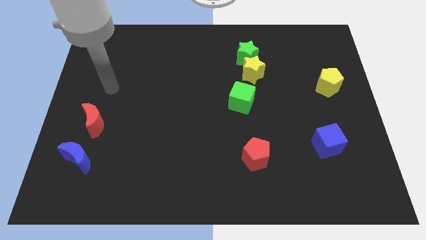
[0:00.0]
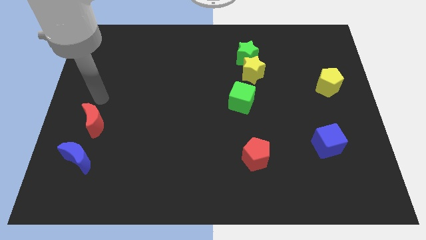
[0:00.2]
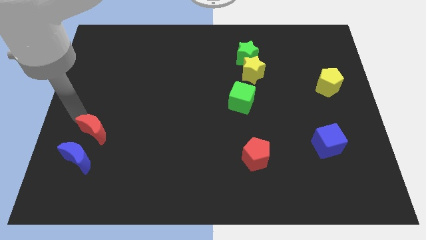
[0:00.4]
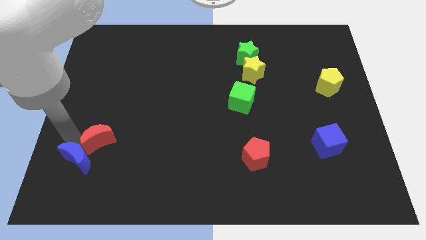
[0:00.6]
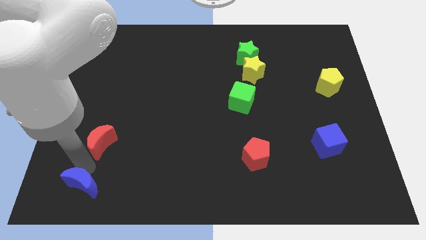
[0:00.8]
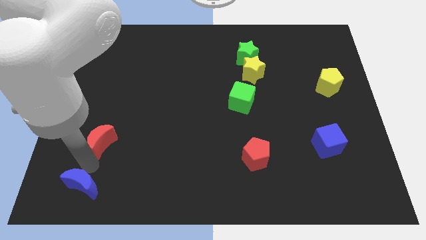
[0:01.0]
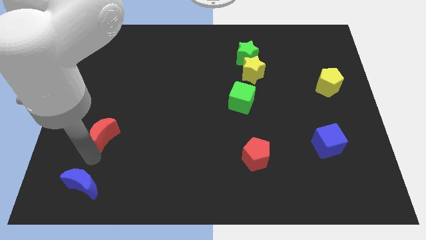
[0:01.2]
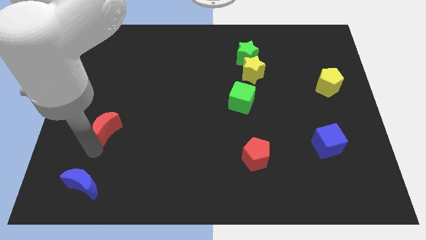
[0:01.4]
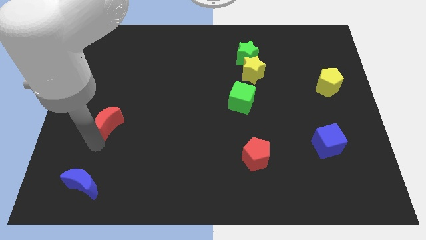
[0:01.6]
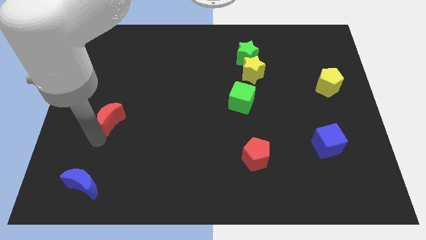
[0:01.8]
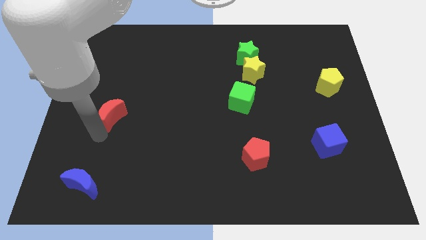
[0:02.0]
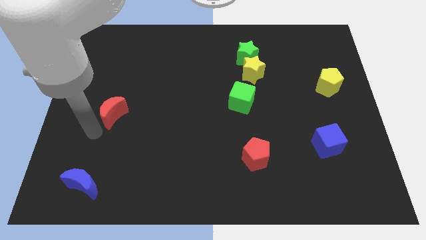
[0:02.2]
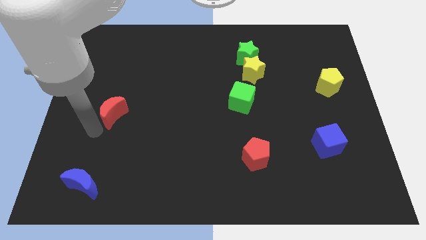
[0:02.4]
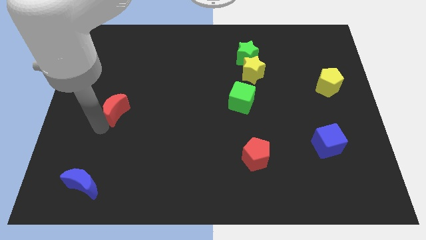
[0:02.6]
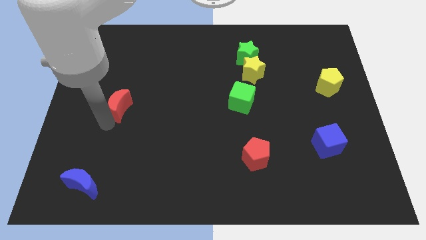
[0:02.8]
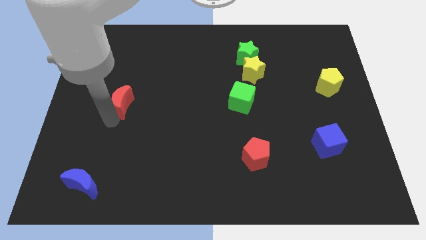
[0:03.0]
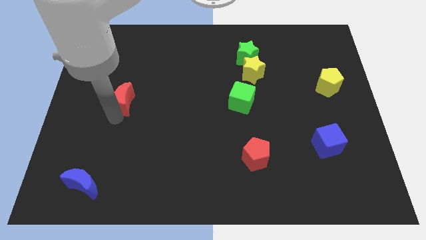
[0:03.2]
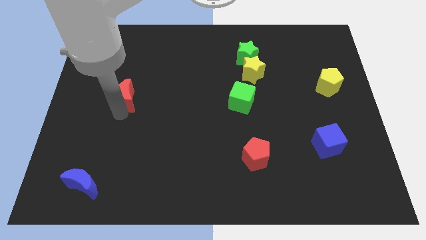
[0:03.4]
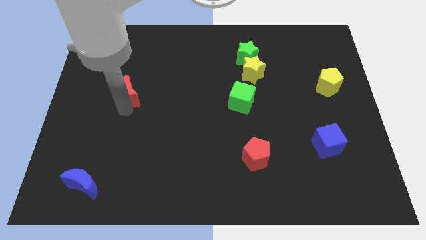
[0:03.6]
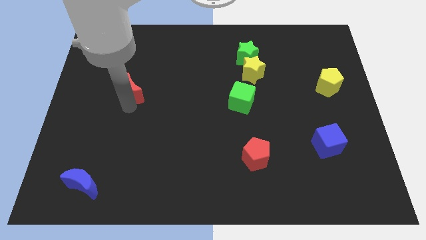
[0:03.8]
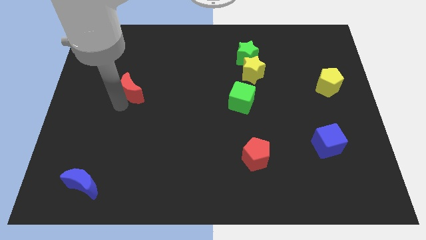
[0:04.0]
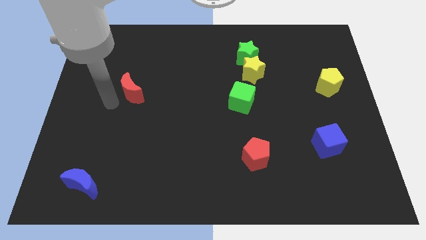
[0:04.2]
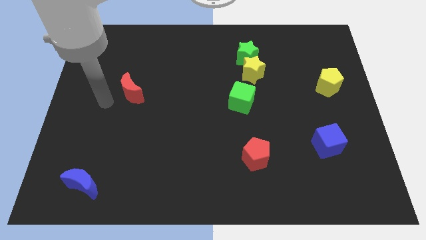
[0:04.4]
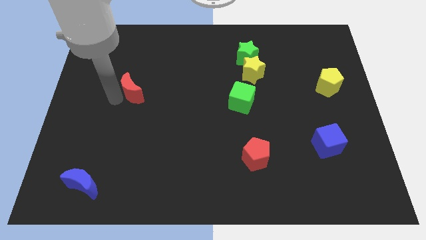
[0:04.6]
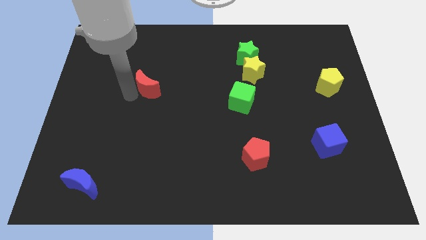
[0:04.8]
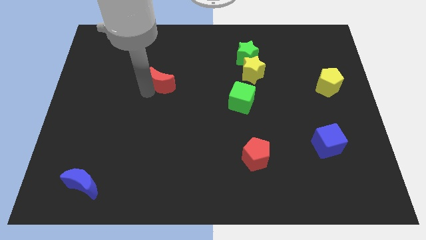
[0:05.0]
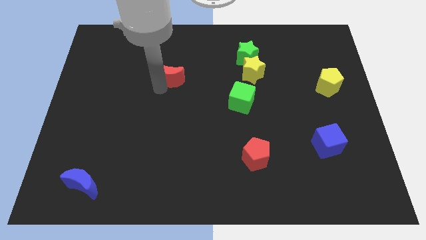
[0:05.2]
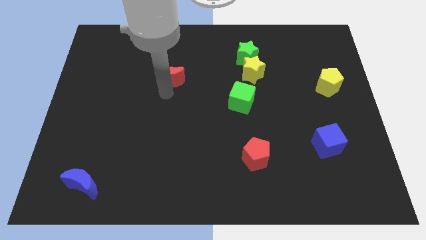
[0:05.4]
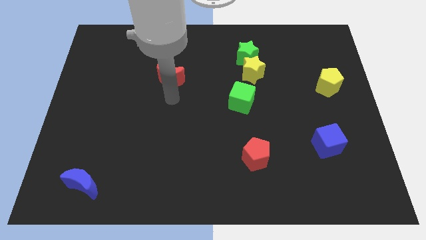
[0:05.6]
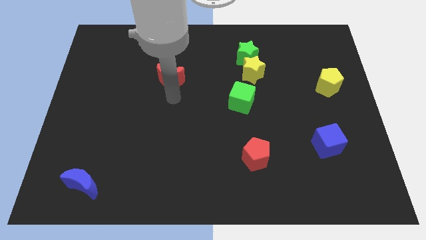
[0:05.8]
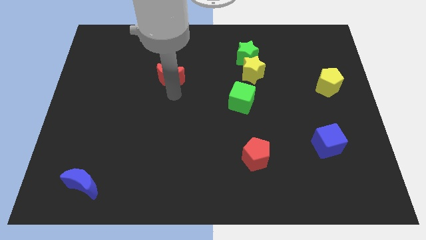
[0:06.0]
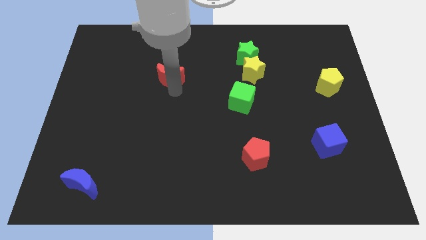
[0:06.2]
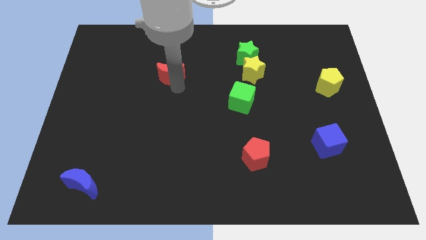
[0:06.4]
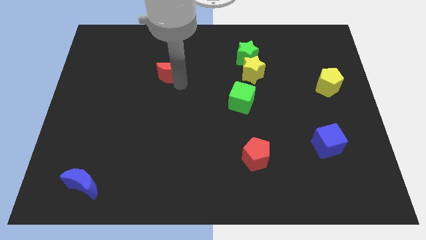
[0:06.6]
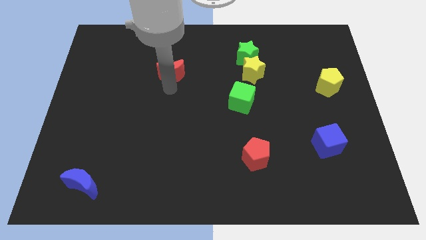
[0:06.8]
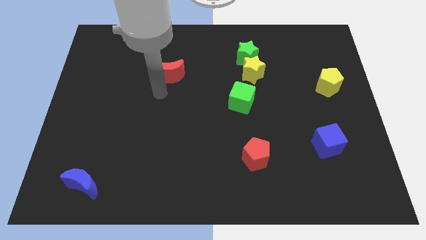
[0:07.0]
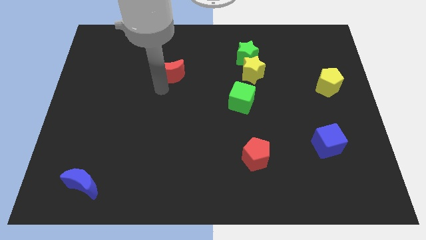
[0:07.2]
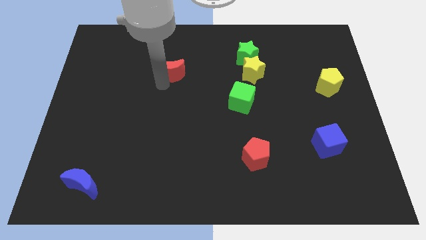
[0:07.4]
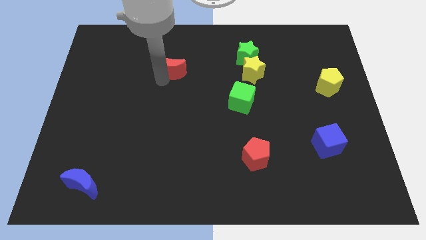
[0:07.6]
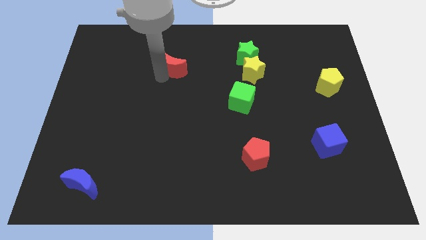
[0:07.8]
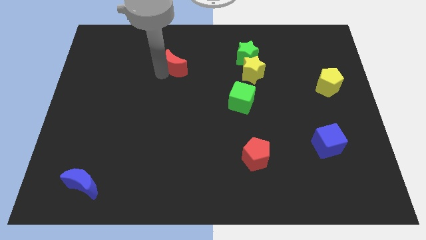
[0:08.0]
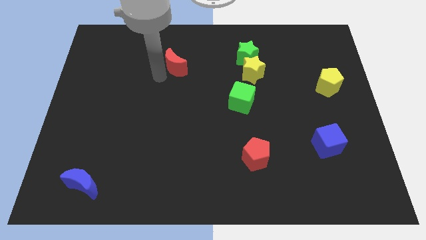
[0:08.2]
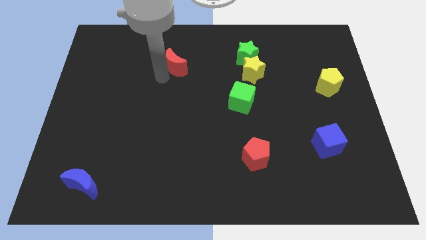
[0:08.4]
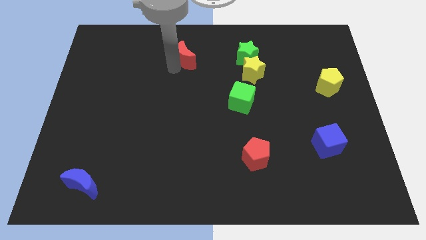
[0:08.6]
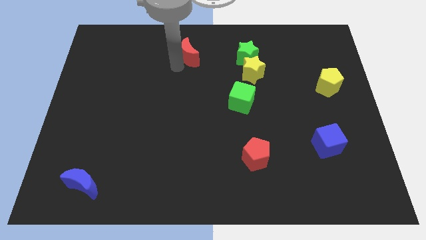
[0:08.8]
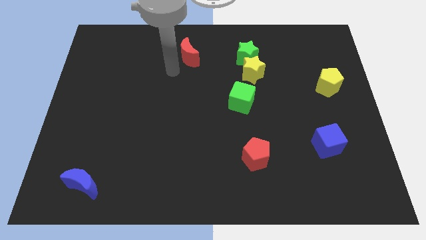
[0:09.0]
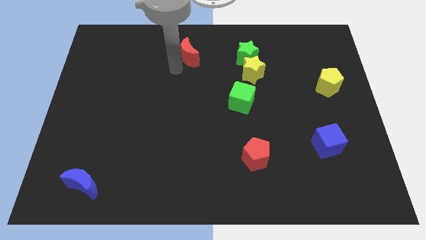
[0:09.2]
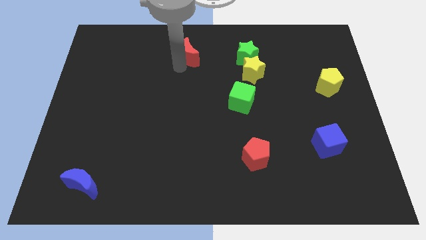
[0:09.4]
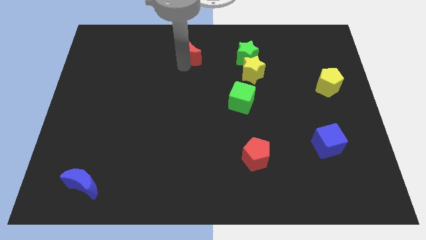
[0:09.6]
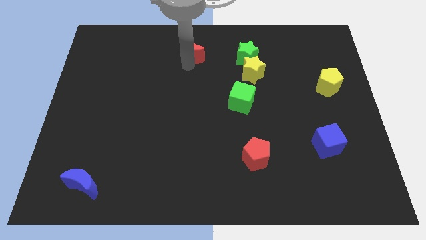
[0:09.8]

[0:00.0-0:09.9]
push the red moon to the towards your base

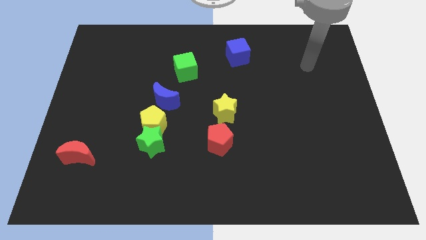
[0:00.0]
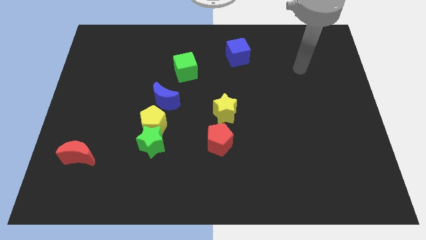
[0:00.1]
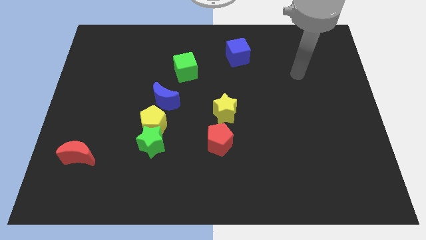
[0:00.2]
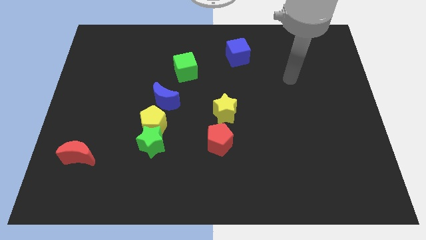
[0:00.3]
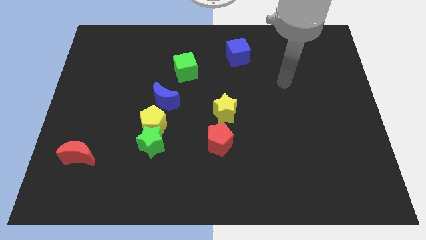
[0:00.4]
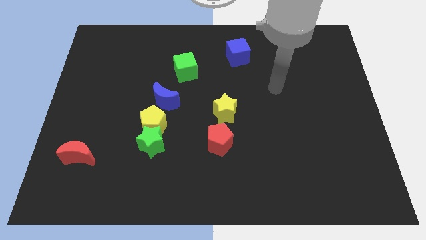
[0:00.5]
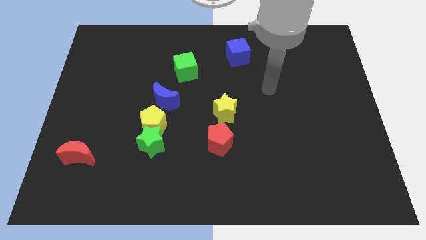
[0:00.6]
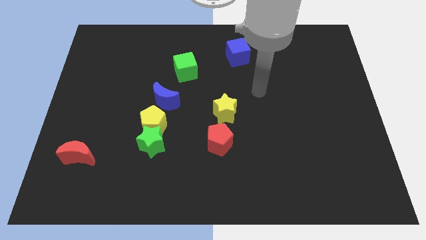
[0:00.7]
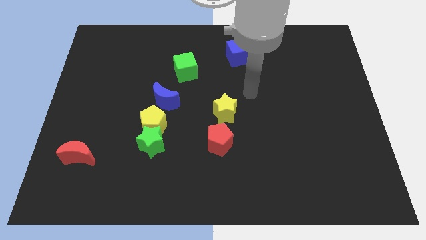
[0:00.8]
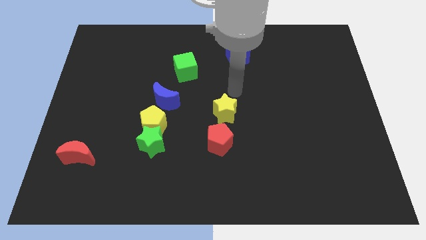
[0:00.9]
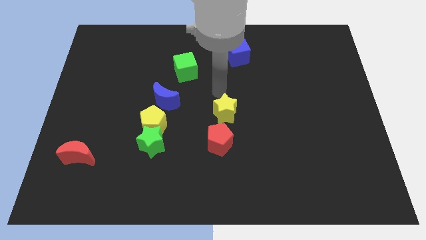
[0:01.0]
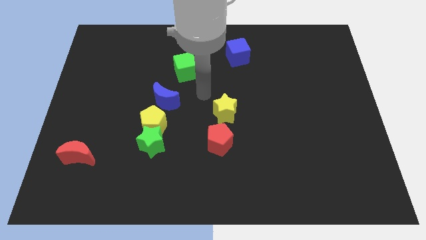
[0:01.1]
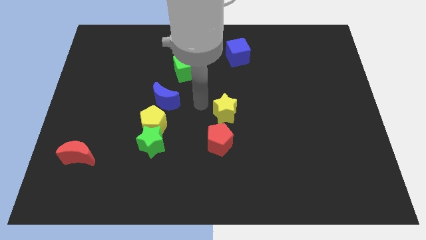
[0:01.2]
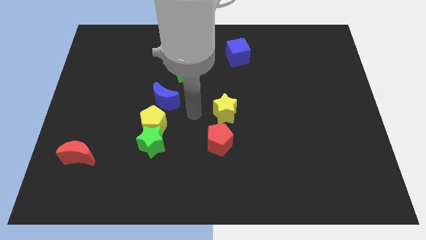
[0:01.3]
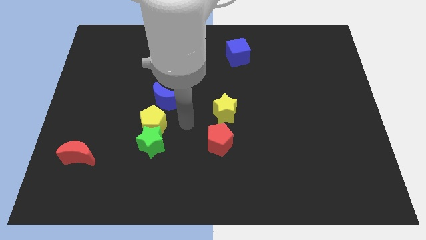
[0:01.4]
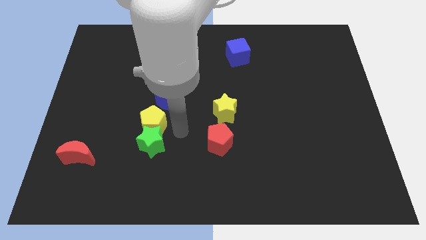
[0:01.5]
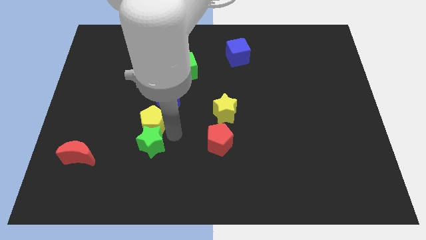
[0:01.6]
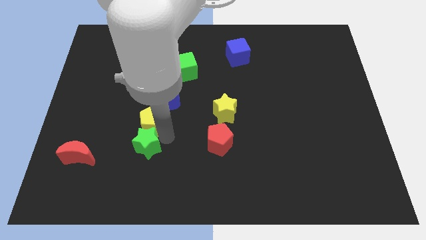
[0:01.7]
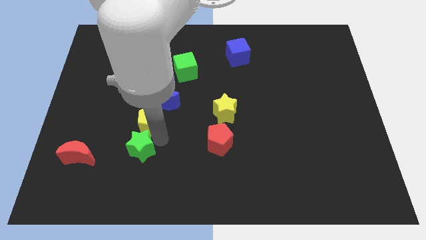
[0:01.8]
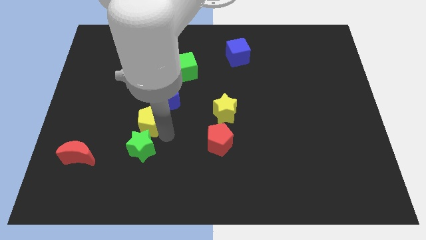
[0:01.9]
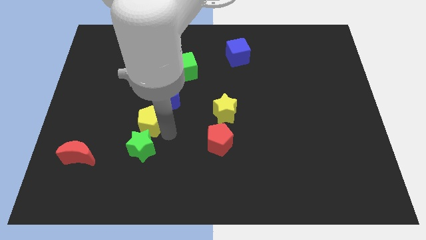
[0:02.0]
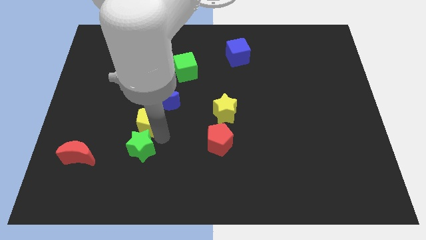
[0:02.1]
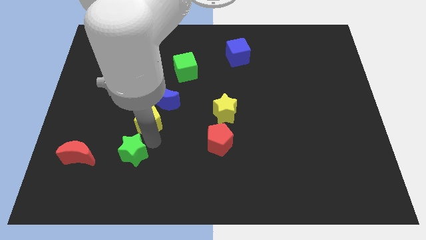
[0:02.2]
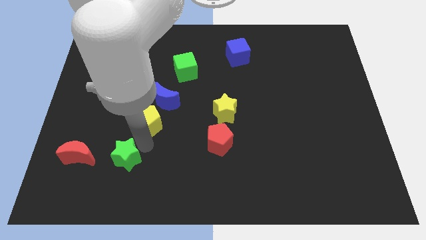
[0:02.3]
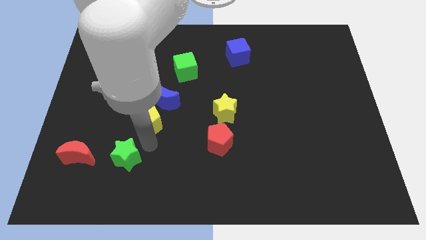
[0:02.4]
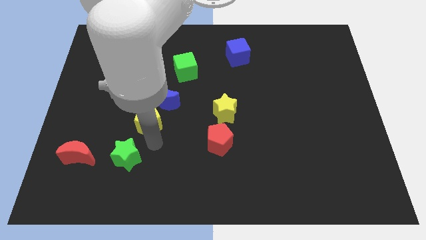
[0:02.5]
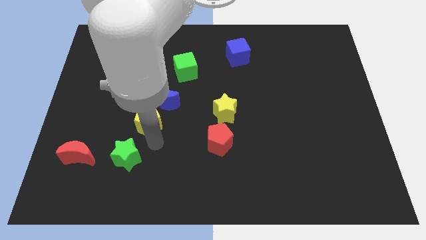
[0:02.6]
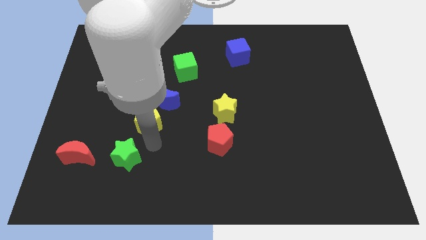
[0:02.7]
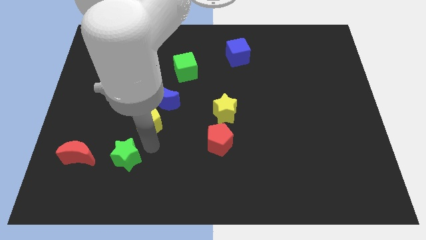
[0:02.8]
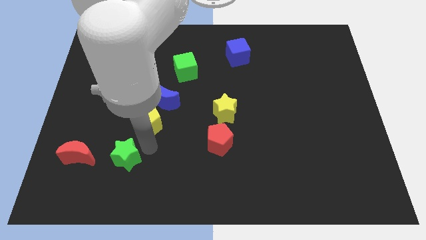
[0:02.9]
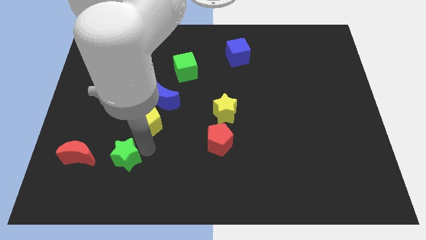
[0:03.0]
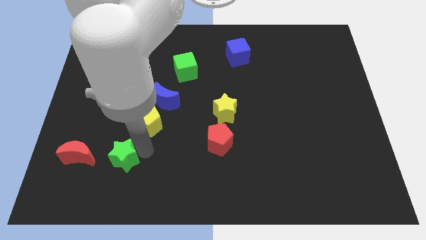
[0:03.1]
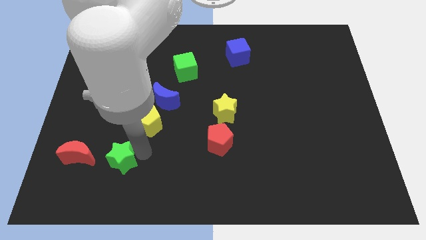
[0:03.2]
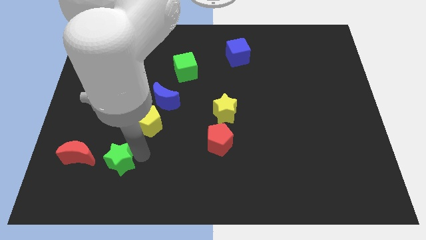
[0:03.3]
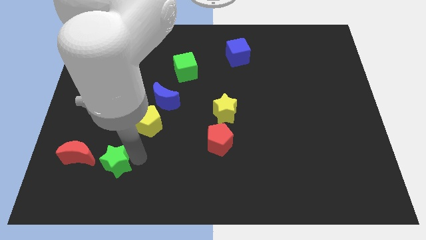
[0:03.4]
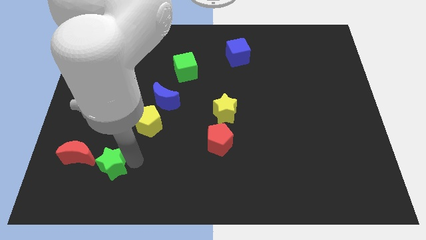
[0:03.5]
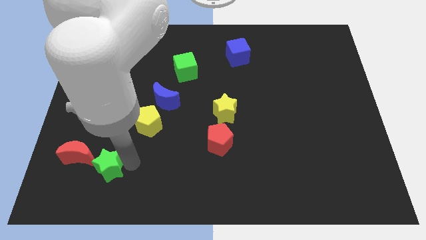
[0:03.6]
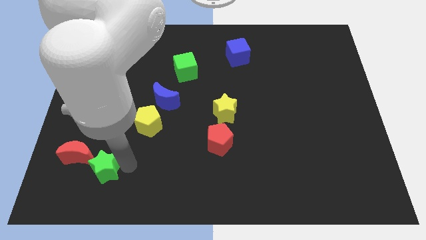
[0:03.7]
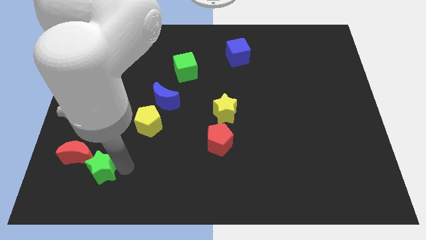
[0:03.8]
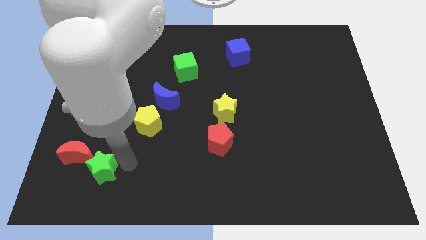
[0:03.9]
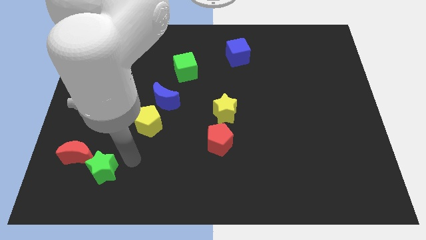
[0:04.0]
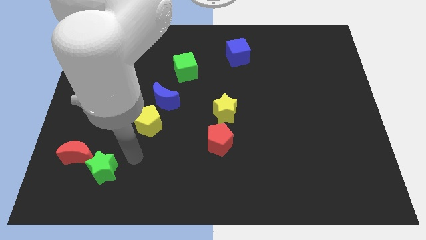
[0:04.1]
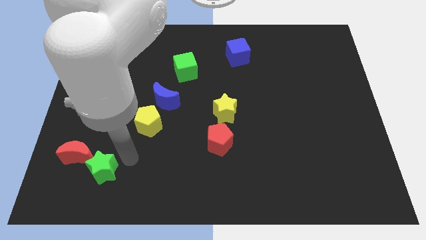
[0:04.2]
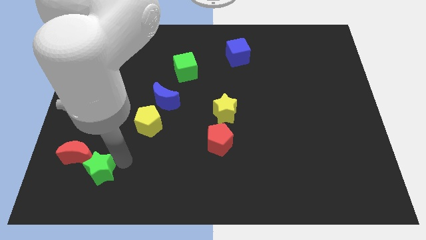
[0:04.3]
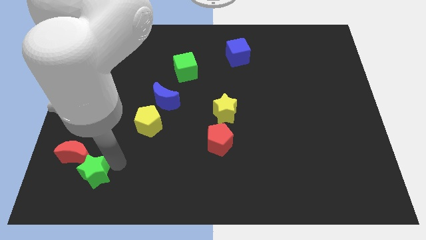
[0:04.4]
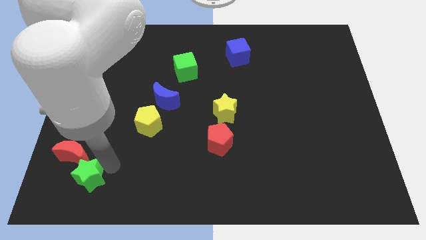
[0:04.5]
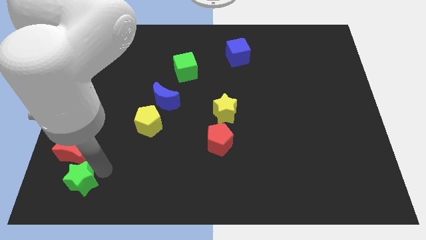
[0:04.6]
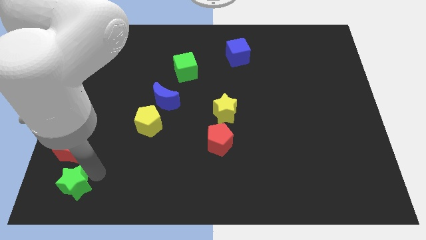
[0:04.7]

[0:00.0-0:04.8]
push the green star to the bottom left of the board
